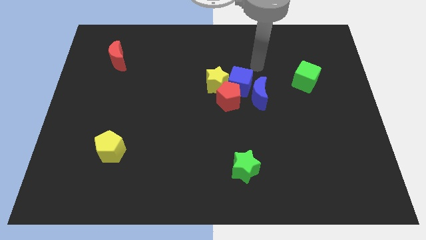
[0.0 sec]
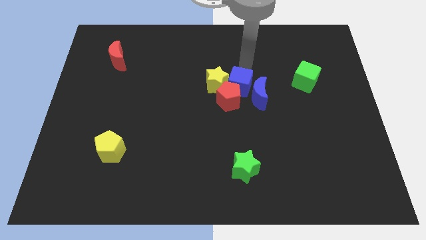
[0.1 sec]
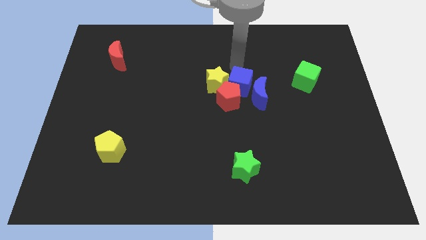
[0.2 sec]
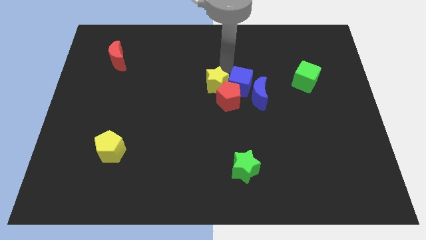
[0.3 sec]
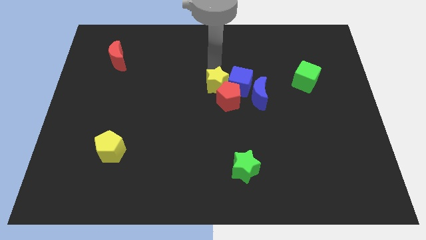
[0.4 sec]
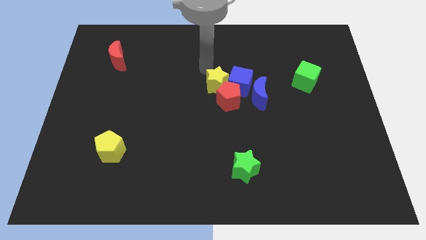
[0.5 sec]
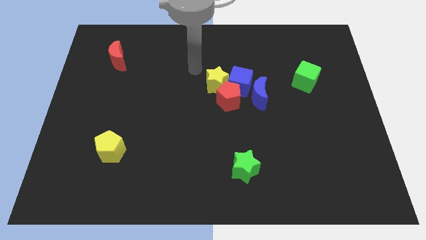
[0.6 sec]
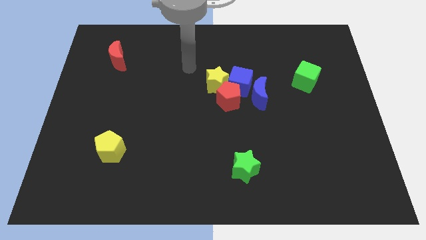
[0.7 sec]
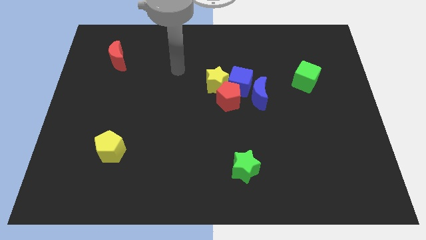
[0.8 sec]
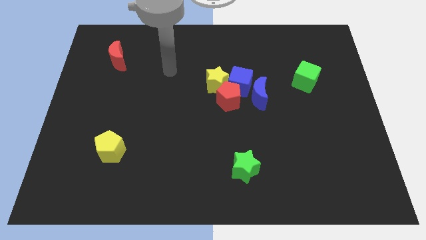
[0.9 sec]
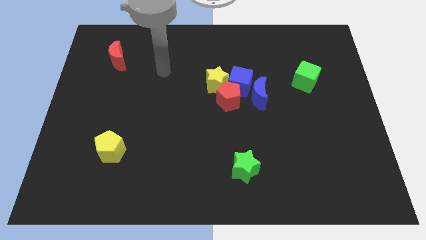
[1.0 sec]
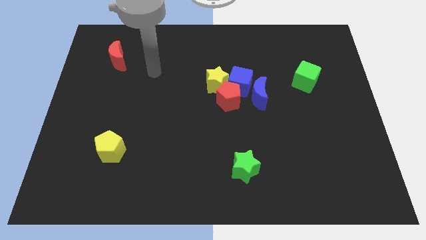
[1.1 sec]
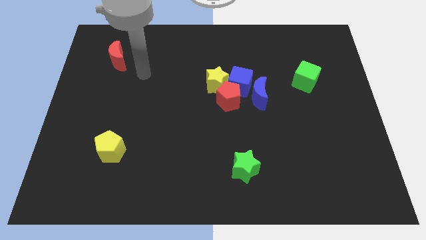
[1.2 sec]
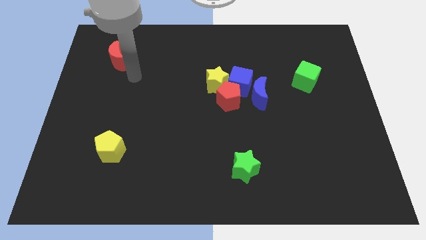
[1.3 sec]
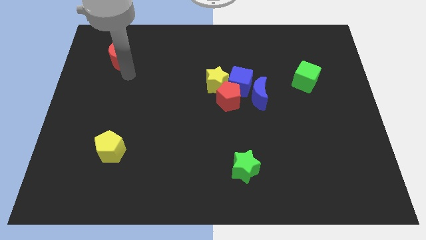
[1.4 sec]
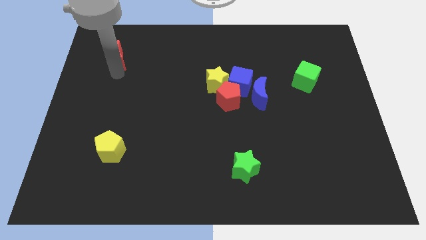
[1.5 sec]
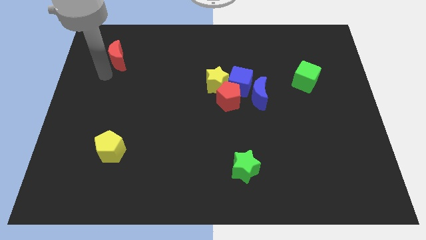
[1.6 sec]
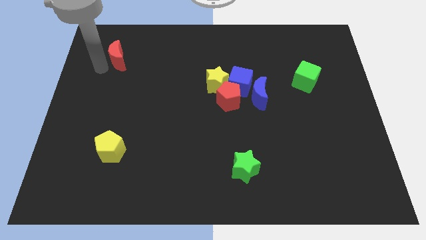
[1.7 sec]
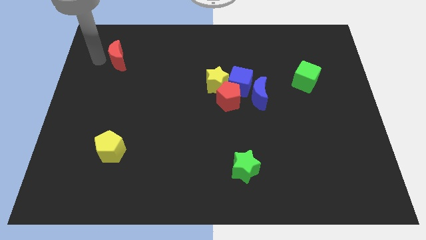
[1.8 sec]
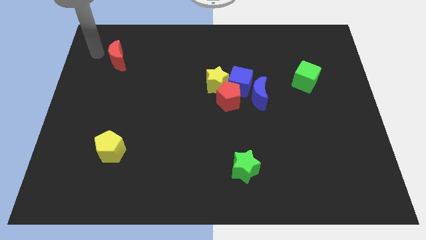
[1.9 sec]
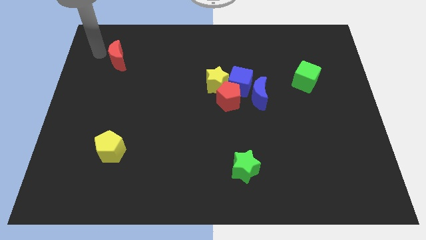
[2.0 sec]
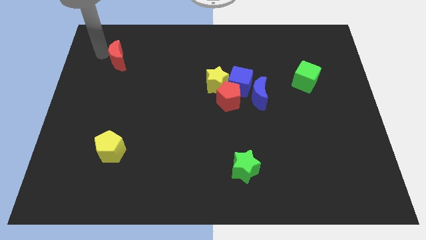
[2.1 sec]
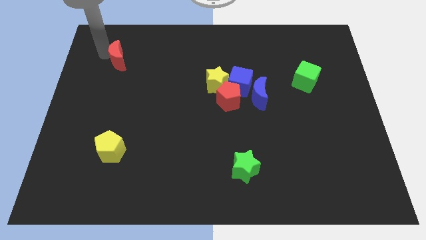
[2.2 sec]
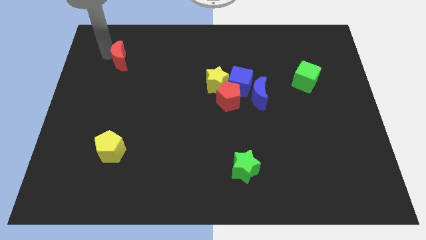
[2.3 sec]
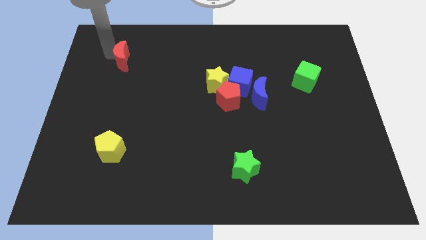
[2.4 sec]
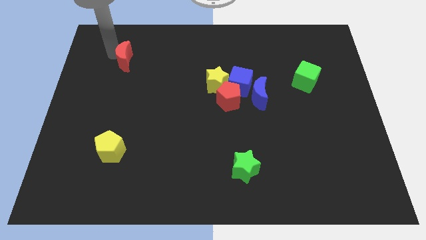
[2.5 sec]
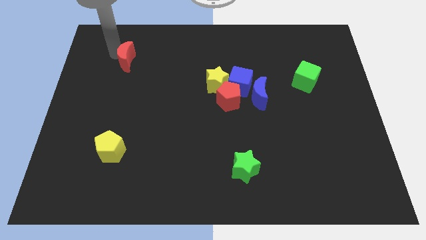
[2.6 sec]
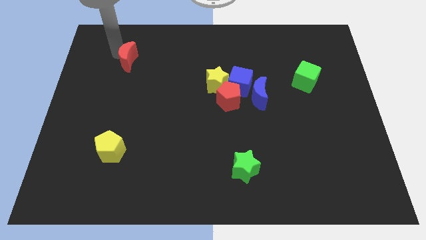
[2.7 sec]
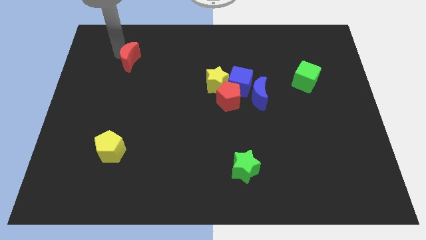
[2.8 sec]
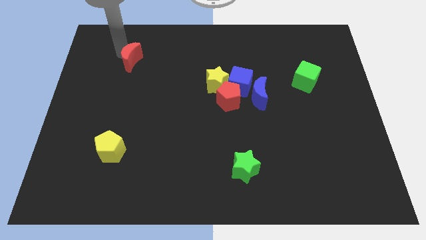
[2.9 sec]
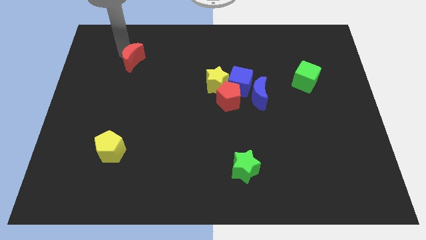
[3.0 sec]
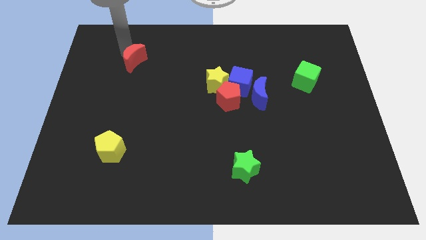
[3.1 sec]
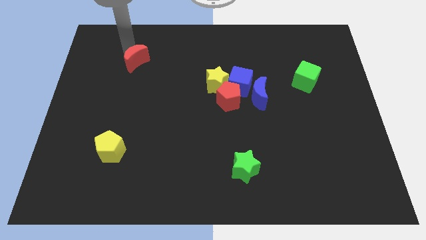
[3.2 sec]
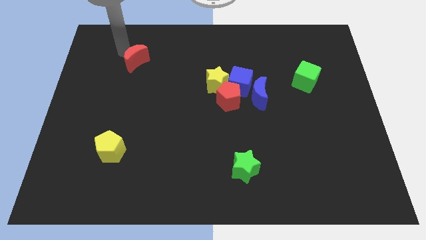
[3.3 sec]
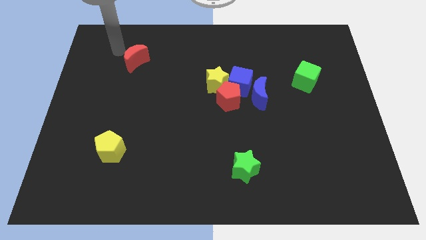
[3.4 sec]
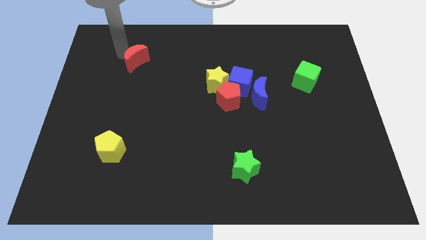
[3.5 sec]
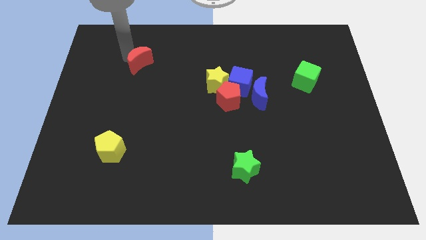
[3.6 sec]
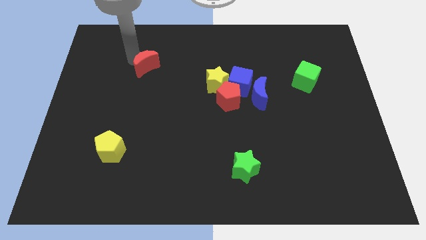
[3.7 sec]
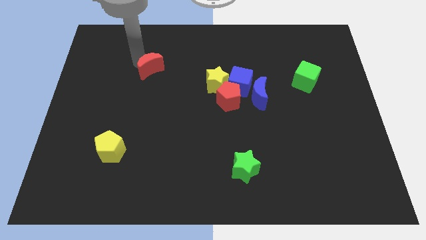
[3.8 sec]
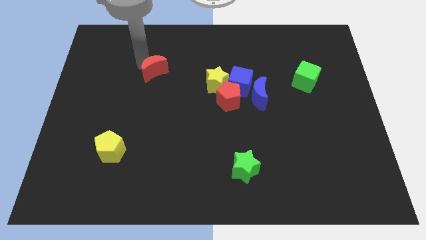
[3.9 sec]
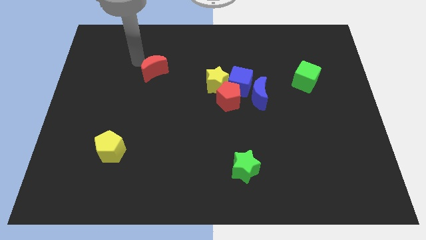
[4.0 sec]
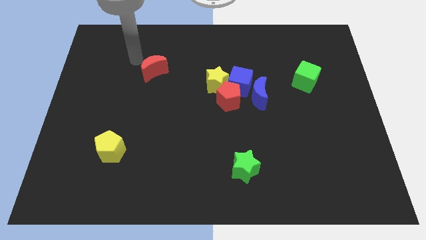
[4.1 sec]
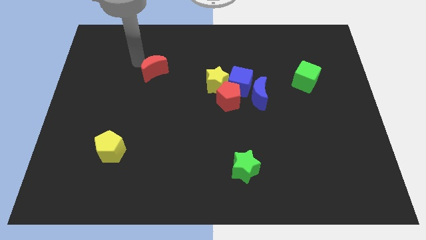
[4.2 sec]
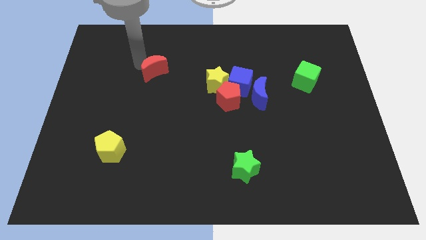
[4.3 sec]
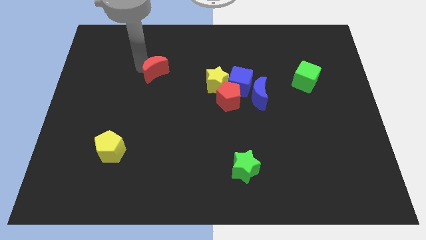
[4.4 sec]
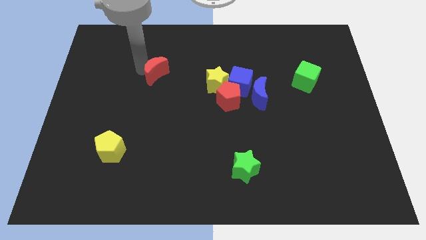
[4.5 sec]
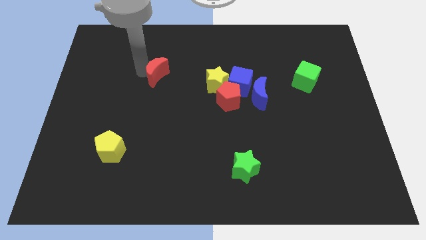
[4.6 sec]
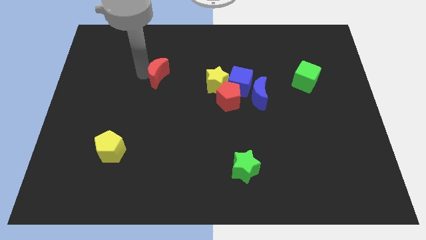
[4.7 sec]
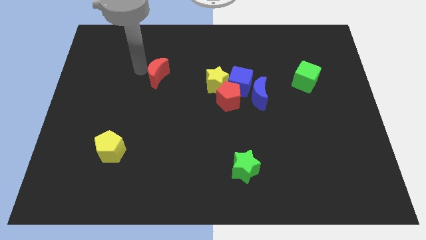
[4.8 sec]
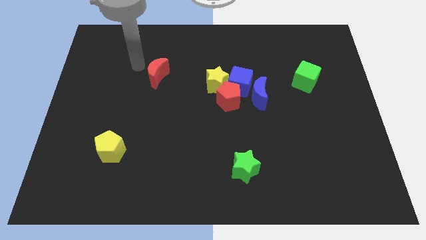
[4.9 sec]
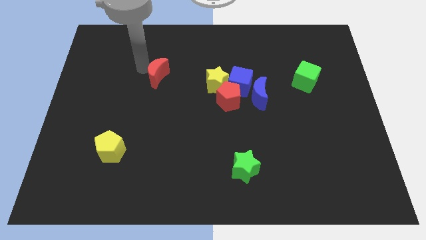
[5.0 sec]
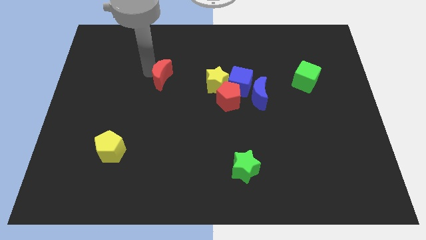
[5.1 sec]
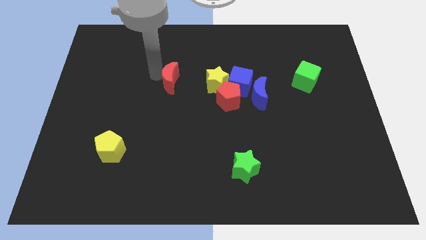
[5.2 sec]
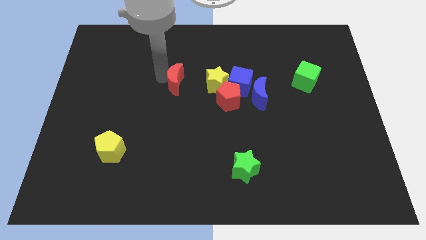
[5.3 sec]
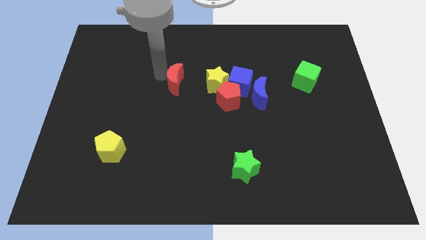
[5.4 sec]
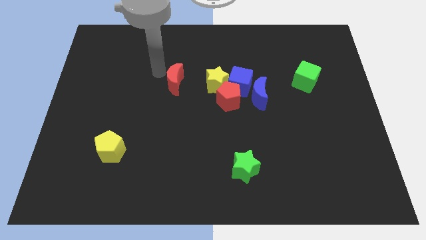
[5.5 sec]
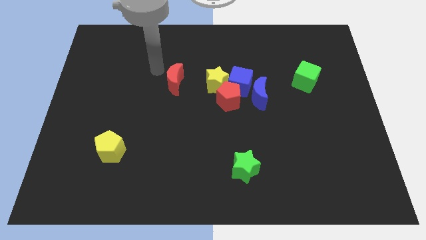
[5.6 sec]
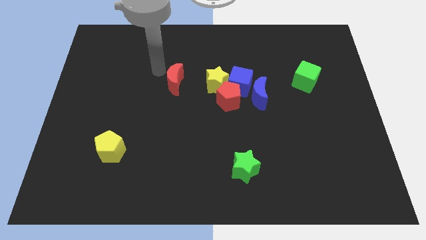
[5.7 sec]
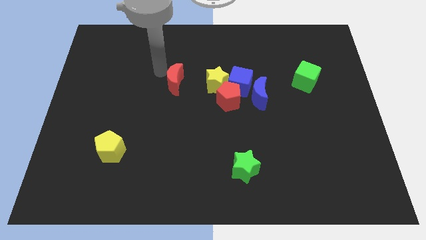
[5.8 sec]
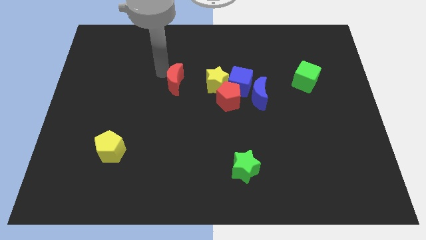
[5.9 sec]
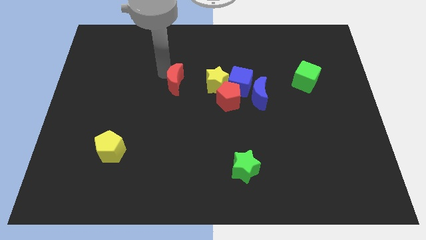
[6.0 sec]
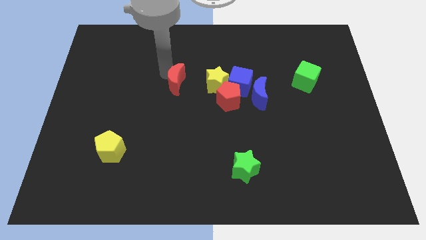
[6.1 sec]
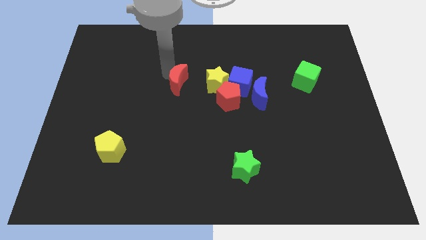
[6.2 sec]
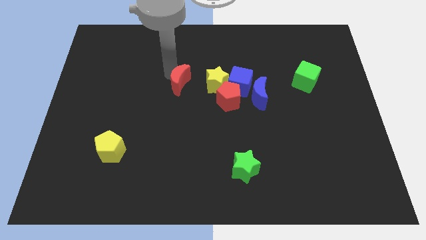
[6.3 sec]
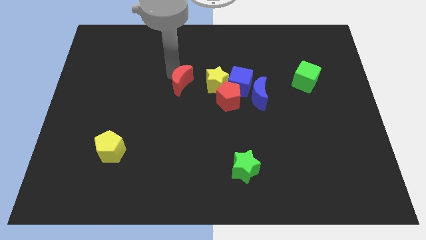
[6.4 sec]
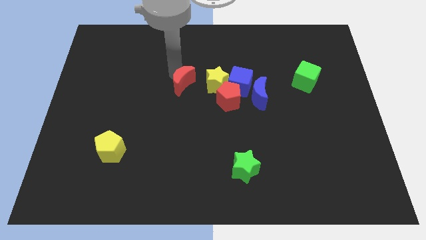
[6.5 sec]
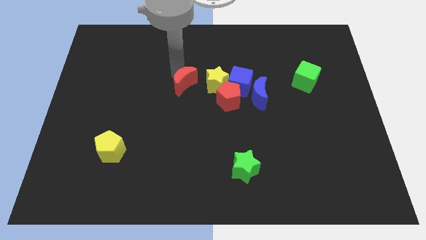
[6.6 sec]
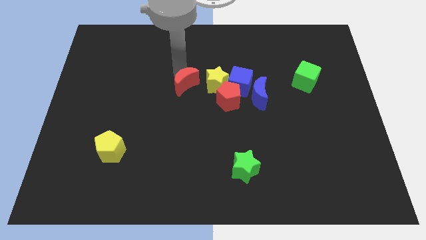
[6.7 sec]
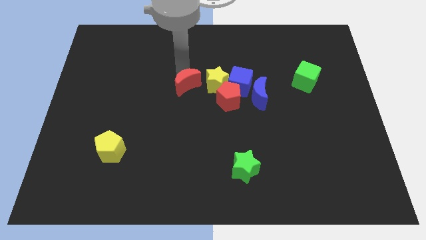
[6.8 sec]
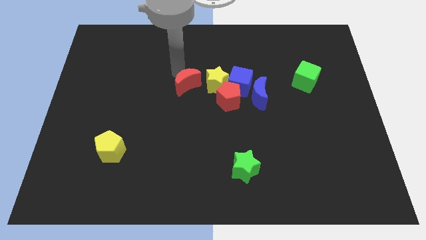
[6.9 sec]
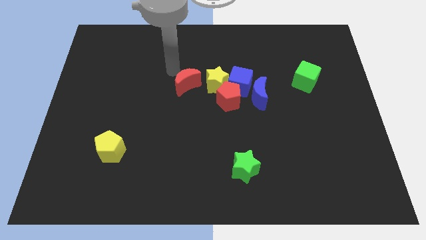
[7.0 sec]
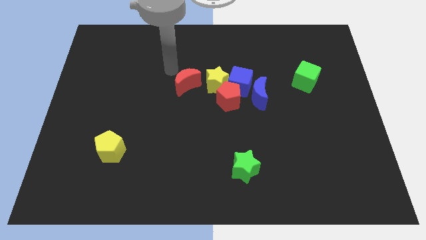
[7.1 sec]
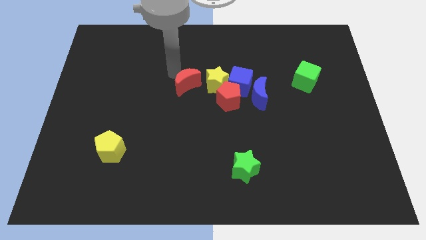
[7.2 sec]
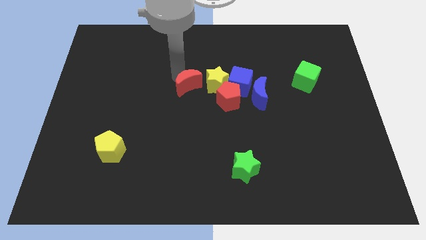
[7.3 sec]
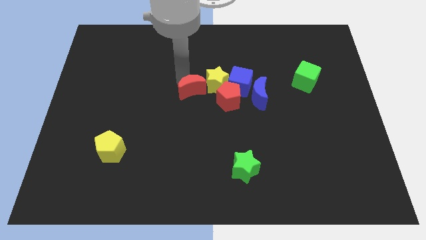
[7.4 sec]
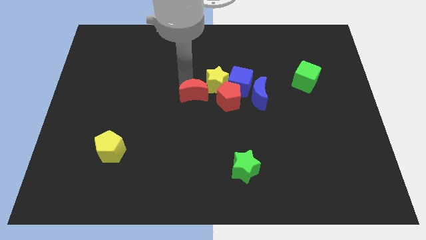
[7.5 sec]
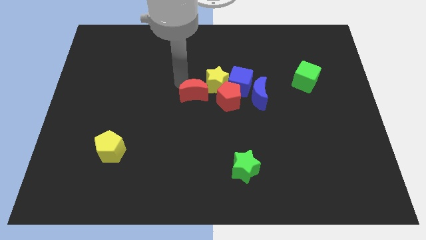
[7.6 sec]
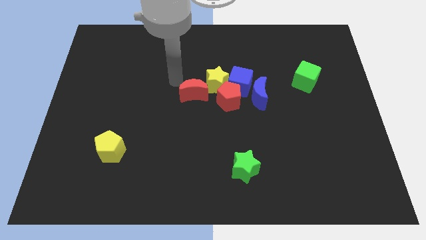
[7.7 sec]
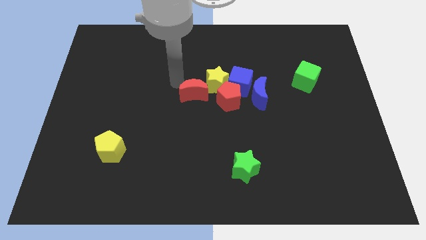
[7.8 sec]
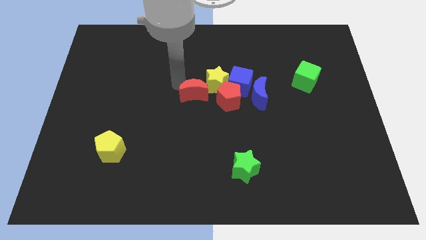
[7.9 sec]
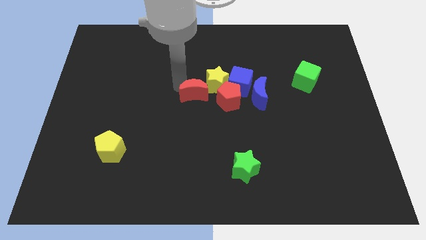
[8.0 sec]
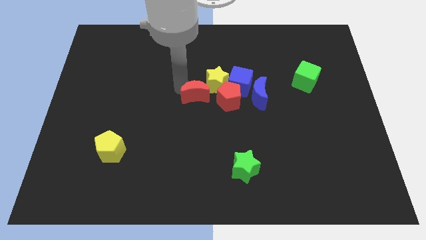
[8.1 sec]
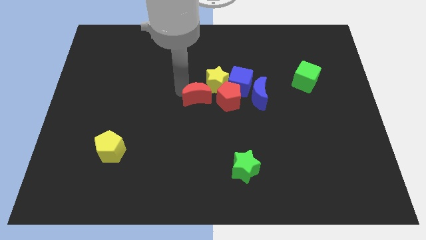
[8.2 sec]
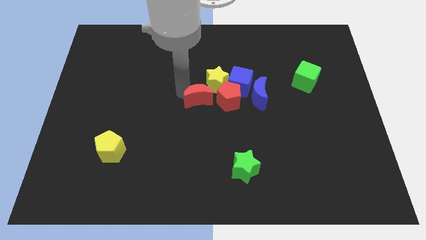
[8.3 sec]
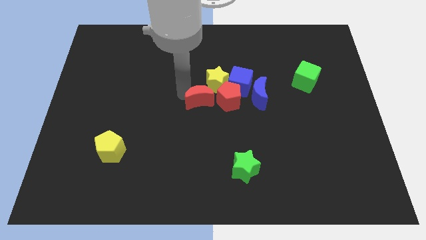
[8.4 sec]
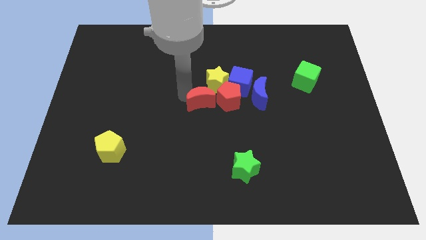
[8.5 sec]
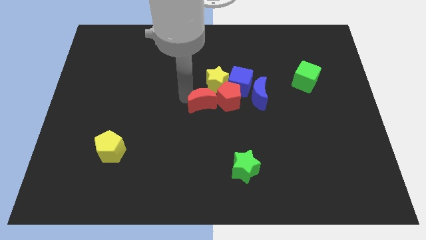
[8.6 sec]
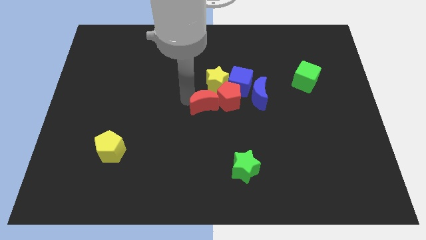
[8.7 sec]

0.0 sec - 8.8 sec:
move the red moon towards the red pentagon
